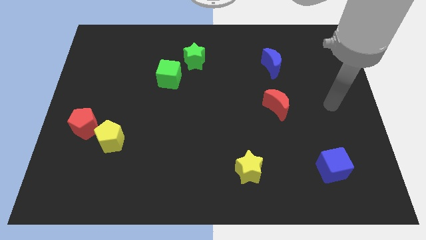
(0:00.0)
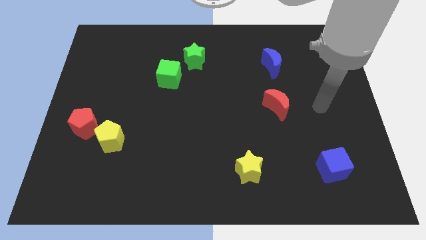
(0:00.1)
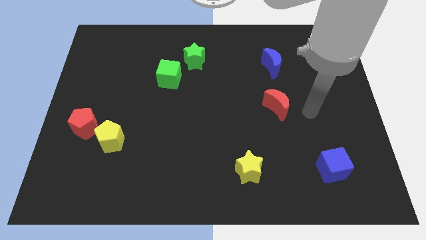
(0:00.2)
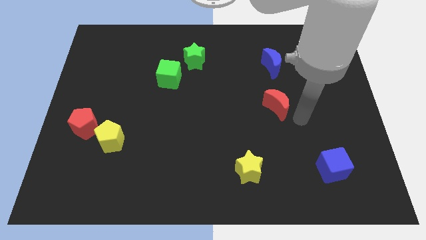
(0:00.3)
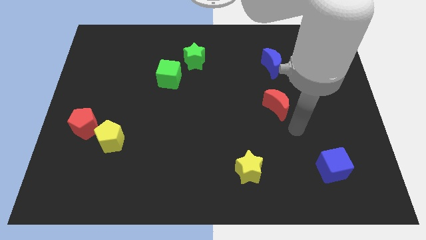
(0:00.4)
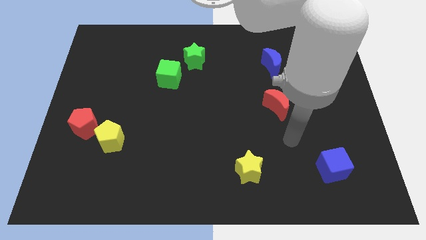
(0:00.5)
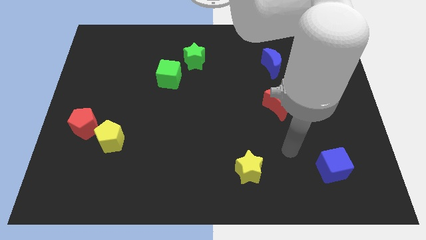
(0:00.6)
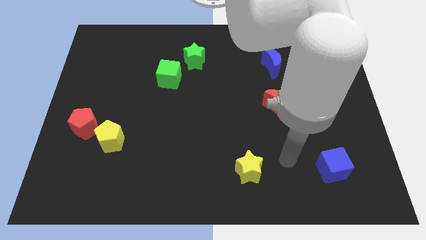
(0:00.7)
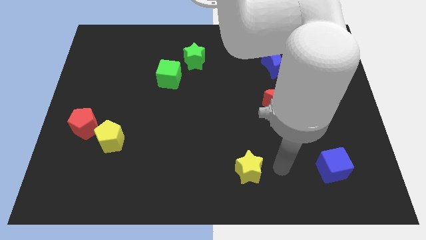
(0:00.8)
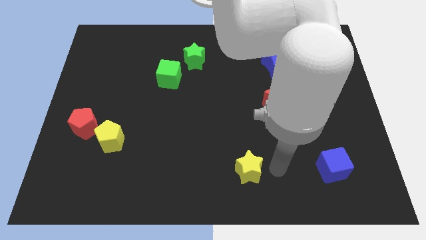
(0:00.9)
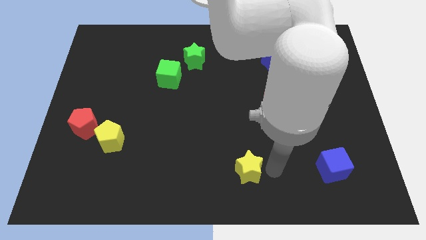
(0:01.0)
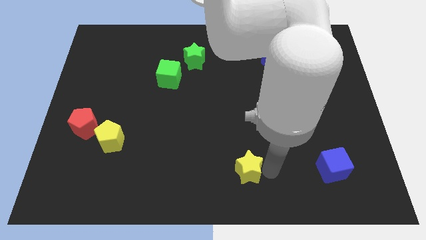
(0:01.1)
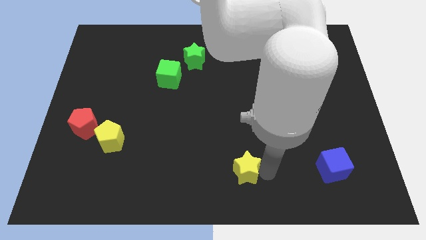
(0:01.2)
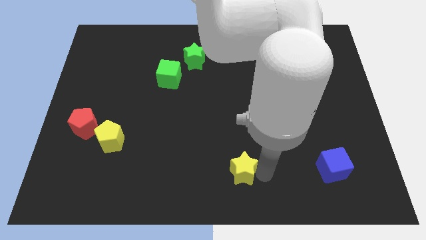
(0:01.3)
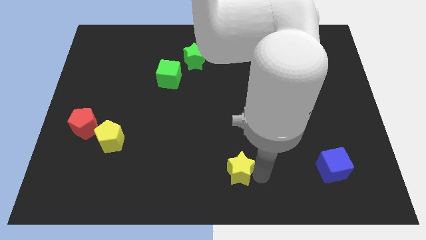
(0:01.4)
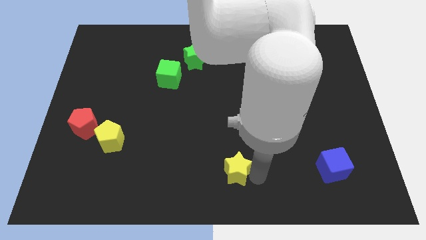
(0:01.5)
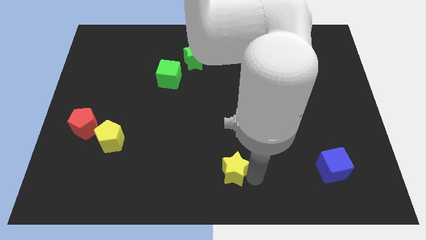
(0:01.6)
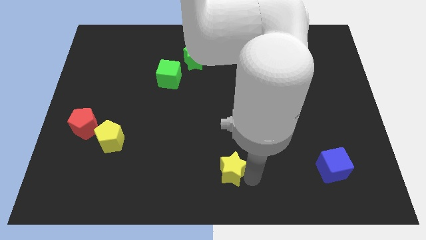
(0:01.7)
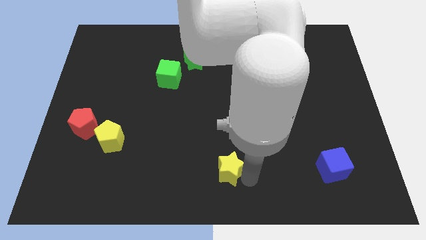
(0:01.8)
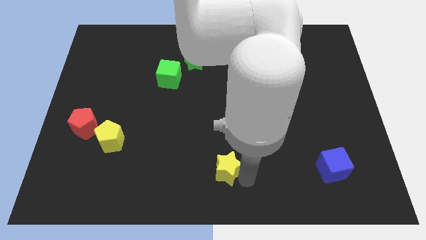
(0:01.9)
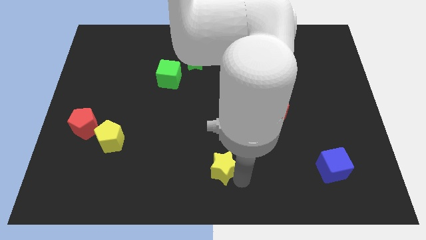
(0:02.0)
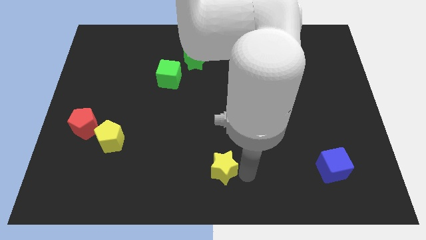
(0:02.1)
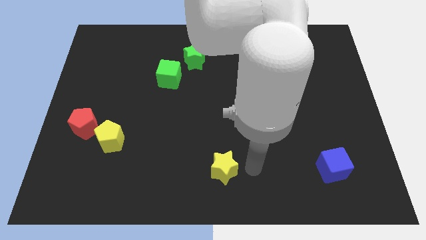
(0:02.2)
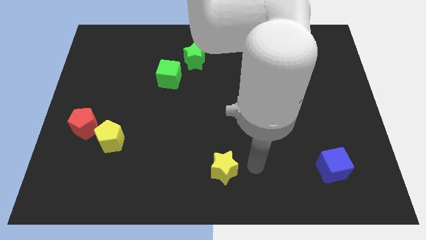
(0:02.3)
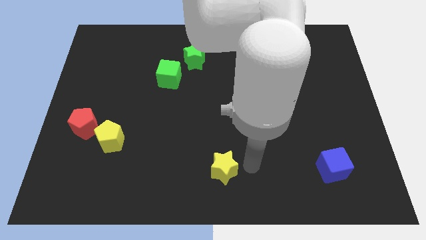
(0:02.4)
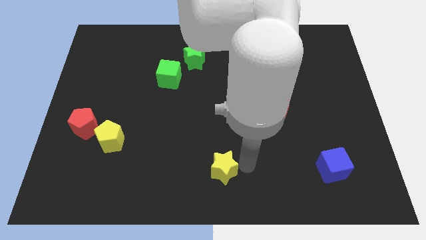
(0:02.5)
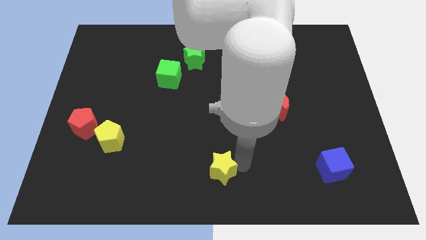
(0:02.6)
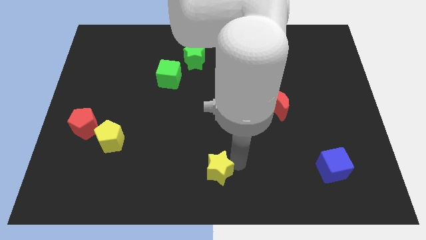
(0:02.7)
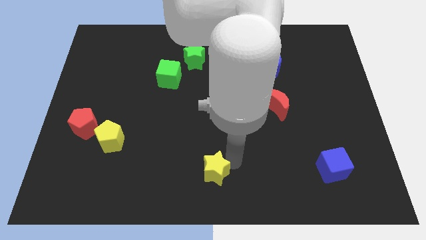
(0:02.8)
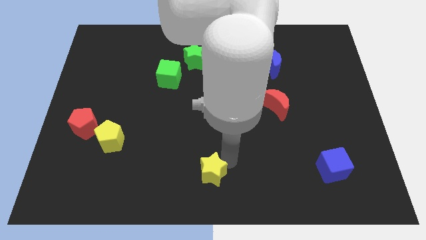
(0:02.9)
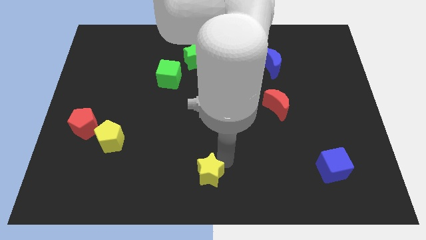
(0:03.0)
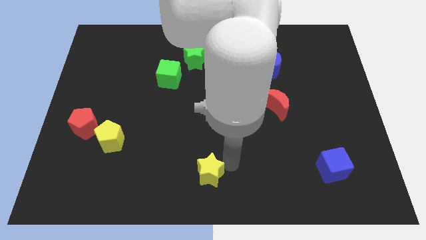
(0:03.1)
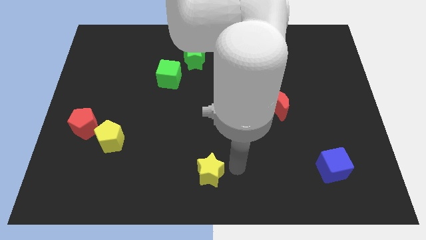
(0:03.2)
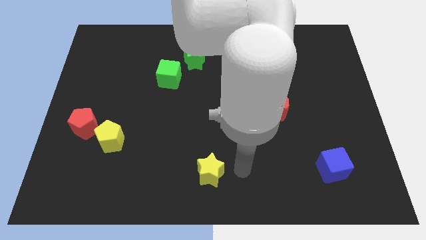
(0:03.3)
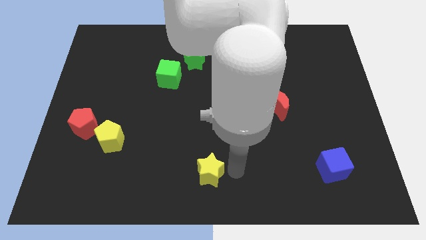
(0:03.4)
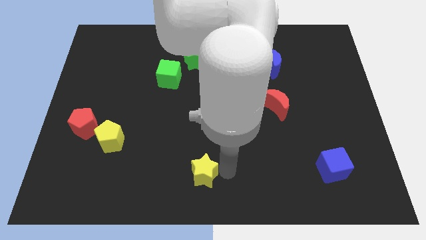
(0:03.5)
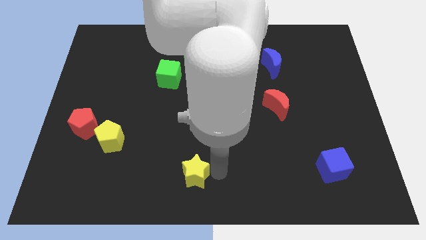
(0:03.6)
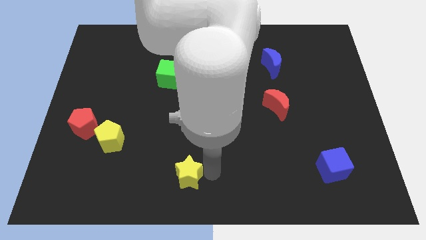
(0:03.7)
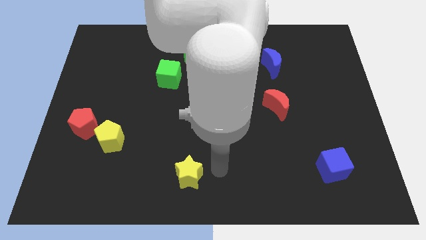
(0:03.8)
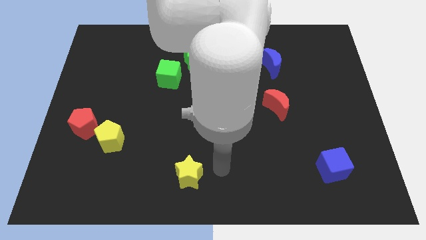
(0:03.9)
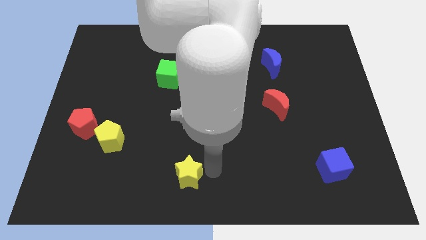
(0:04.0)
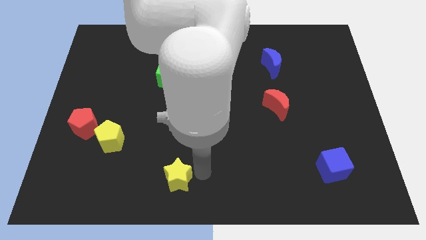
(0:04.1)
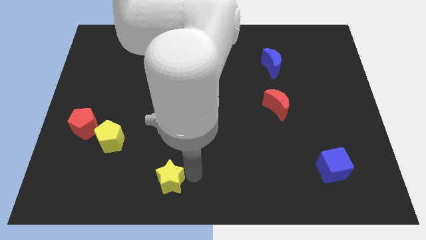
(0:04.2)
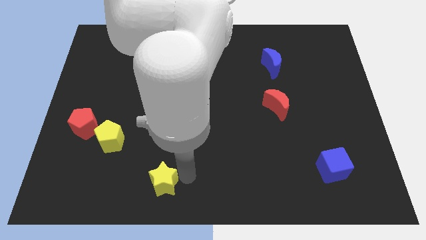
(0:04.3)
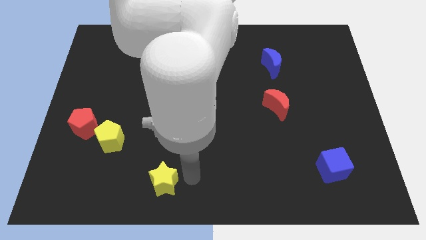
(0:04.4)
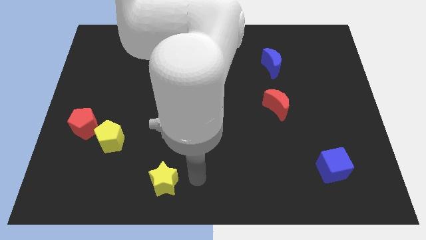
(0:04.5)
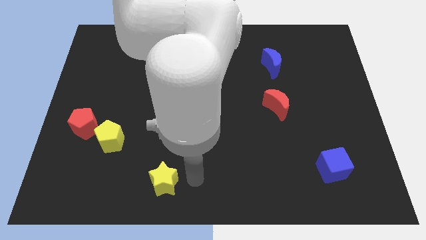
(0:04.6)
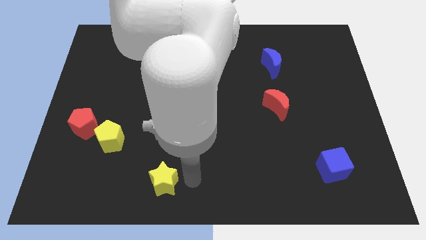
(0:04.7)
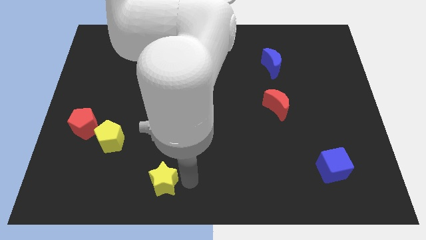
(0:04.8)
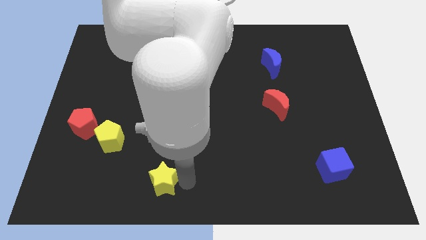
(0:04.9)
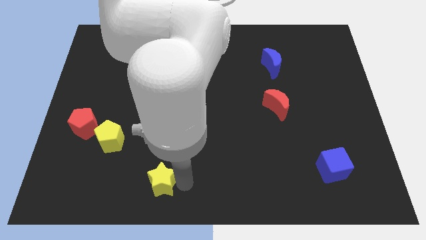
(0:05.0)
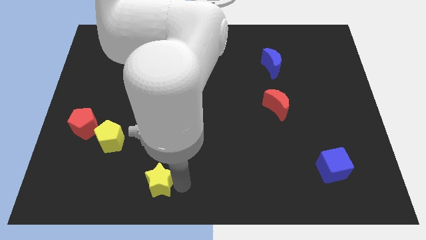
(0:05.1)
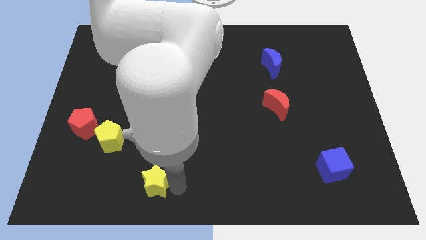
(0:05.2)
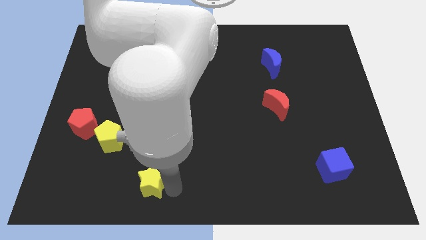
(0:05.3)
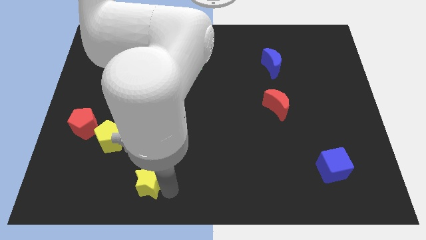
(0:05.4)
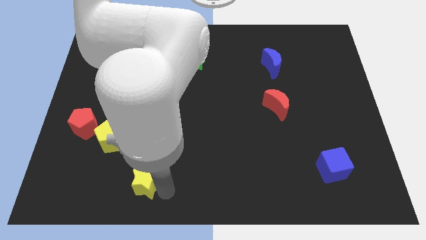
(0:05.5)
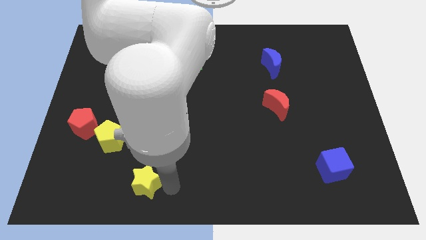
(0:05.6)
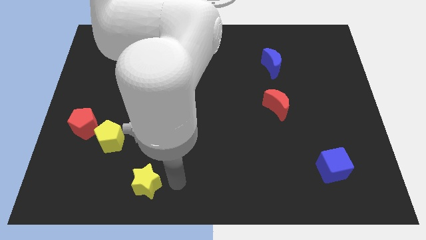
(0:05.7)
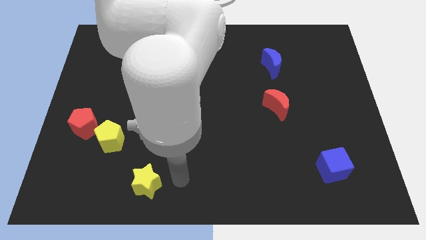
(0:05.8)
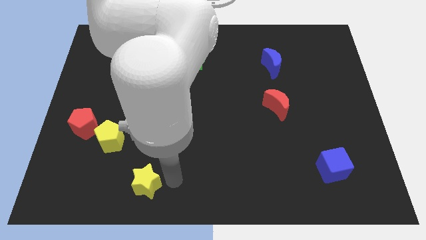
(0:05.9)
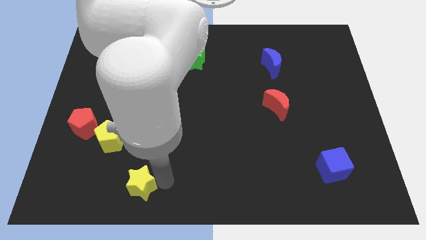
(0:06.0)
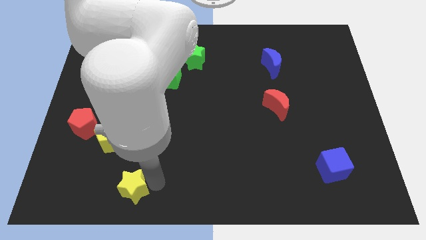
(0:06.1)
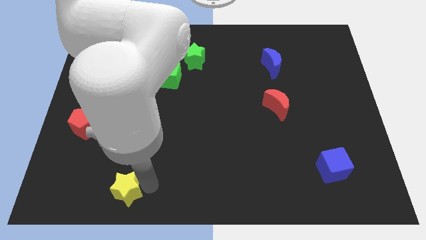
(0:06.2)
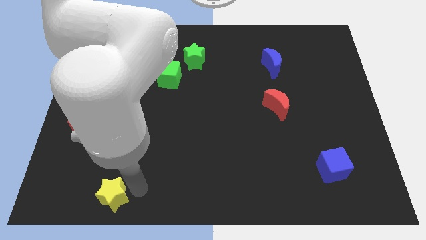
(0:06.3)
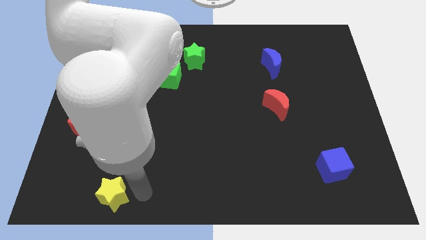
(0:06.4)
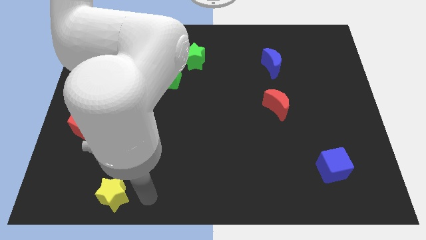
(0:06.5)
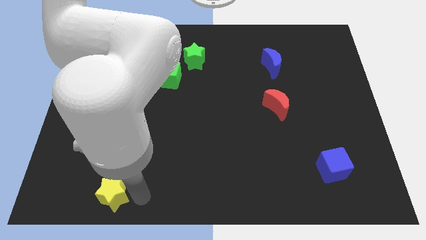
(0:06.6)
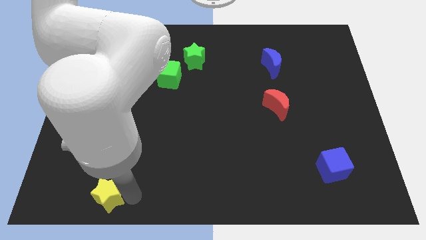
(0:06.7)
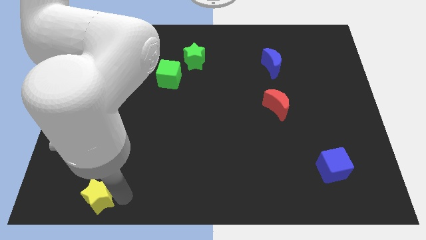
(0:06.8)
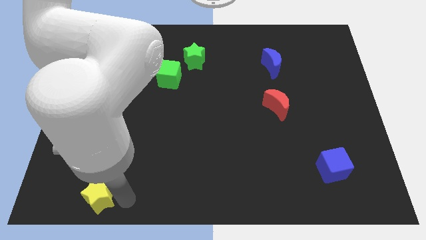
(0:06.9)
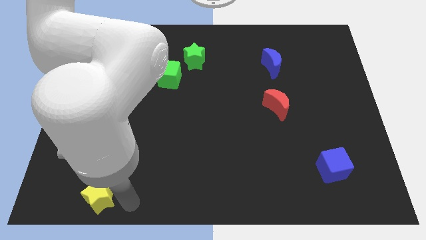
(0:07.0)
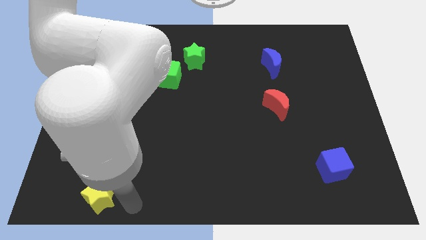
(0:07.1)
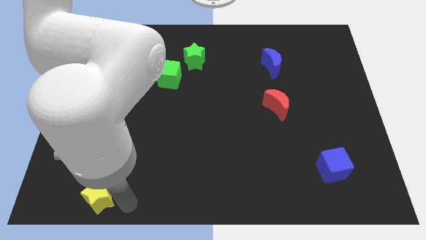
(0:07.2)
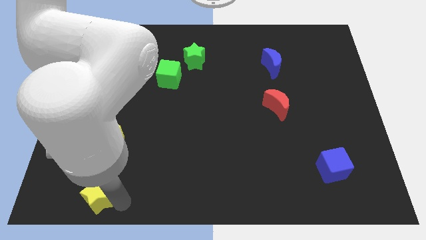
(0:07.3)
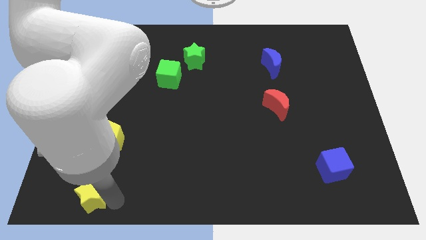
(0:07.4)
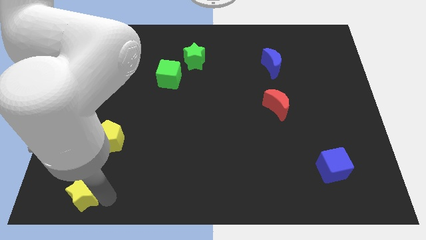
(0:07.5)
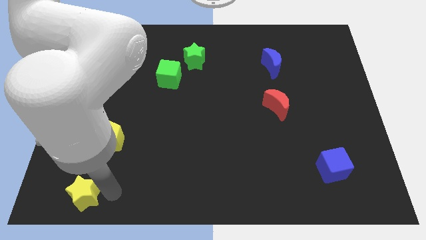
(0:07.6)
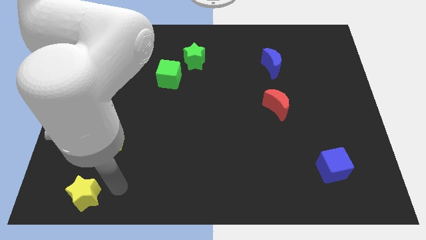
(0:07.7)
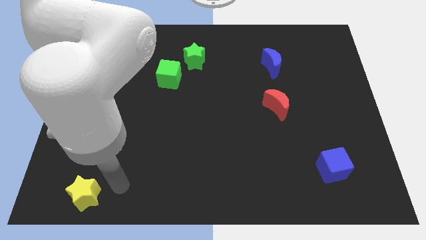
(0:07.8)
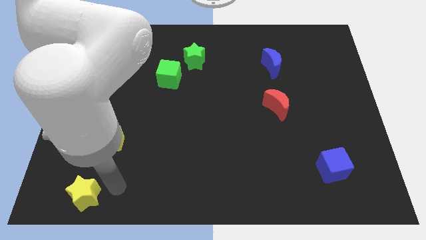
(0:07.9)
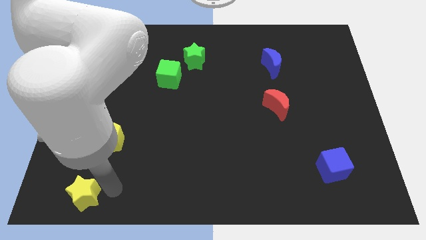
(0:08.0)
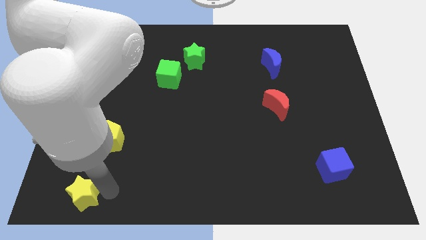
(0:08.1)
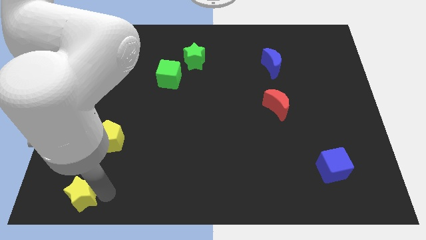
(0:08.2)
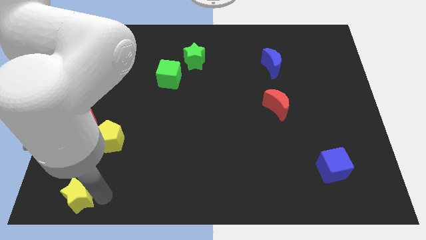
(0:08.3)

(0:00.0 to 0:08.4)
move the yellow star to the bottom left
